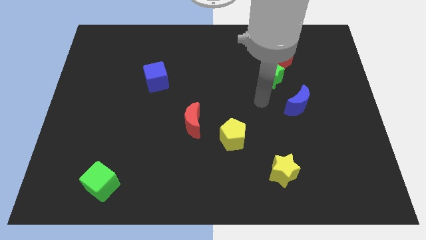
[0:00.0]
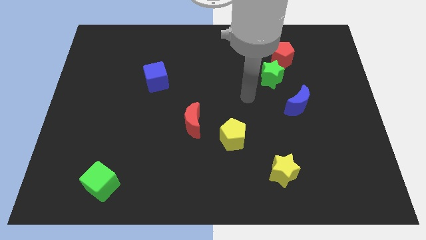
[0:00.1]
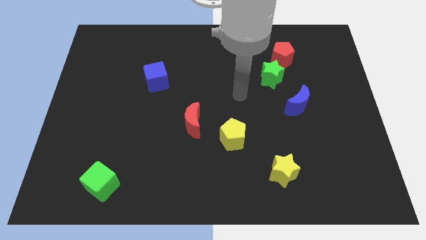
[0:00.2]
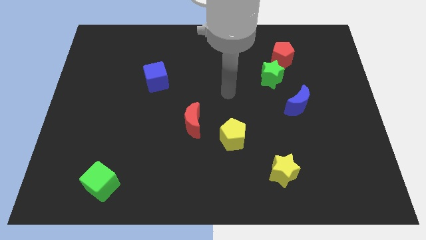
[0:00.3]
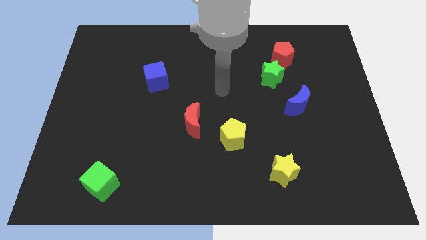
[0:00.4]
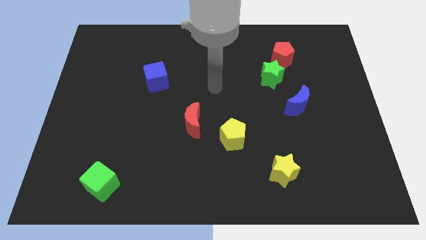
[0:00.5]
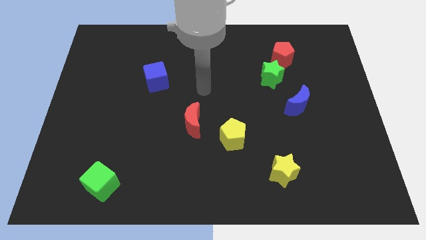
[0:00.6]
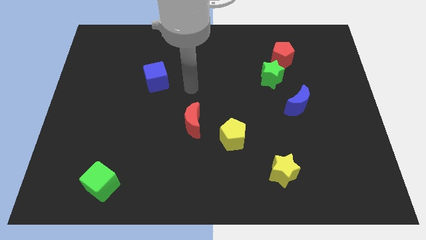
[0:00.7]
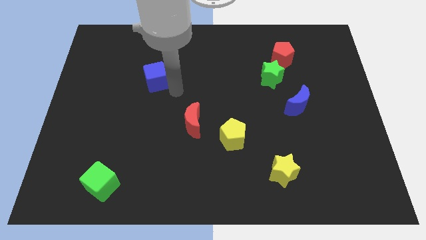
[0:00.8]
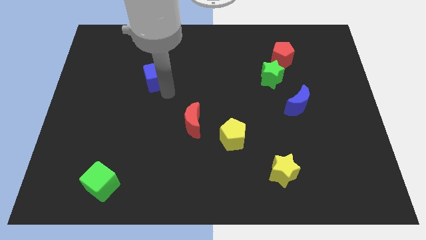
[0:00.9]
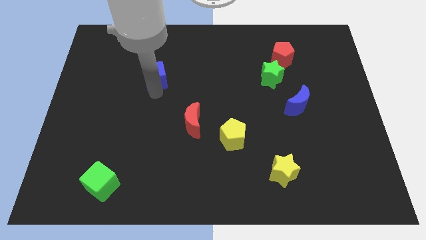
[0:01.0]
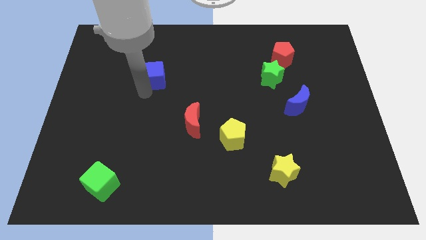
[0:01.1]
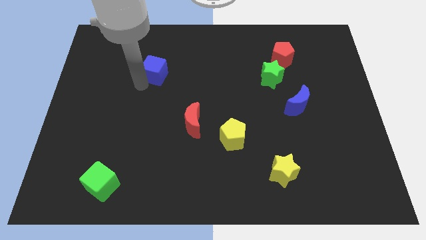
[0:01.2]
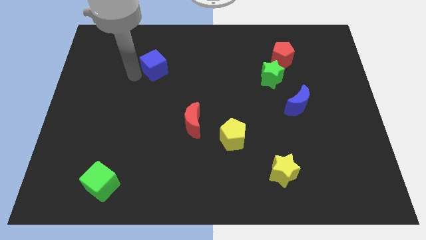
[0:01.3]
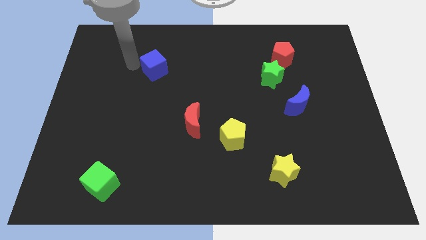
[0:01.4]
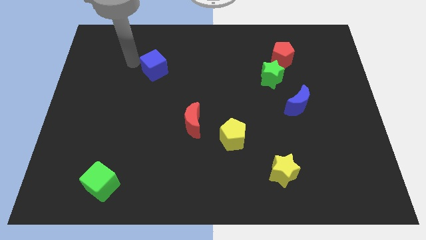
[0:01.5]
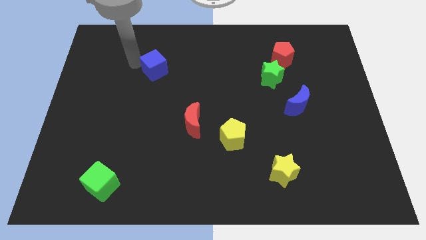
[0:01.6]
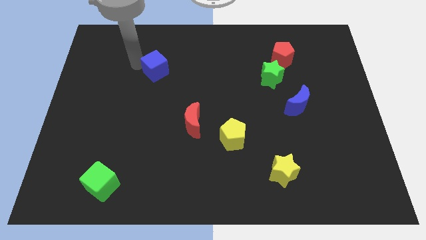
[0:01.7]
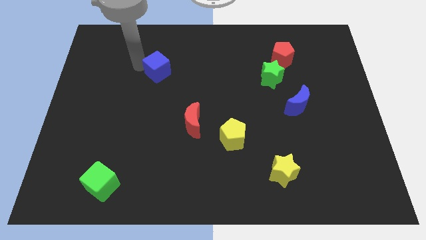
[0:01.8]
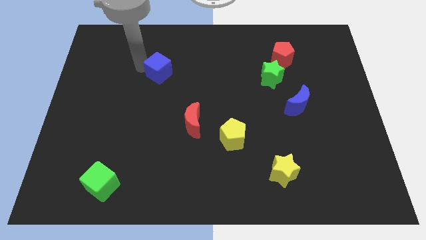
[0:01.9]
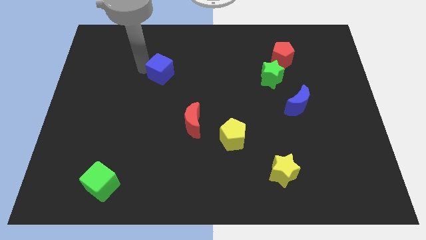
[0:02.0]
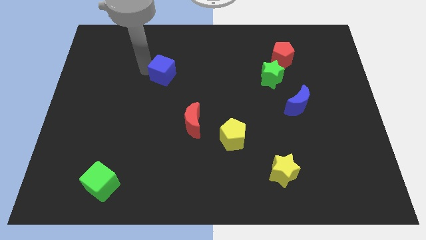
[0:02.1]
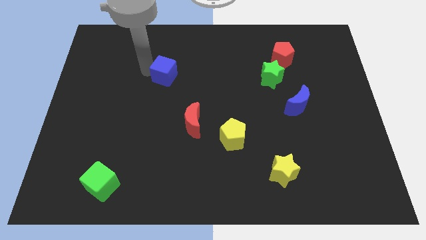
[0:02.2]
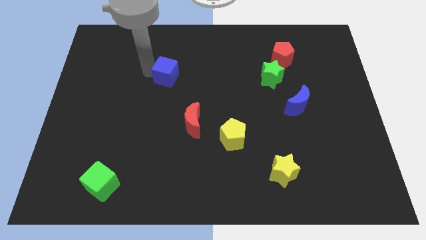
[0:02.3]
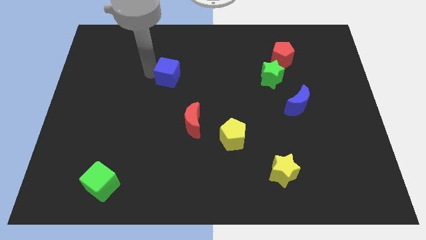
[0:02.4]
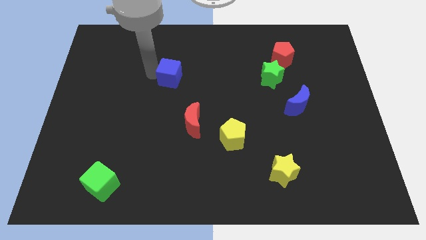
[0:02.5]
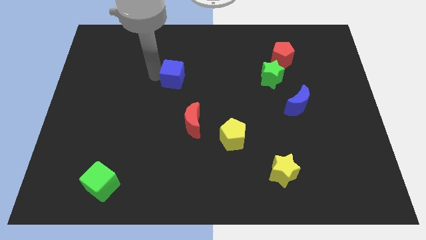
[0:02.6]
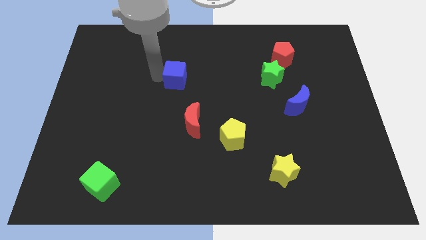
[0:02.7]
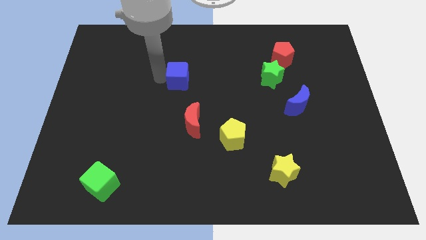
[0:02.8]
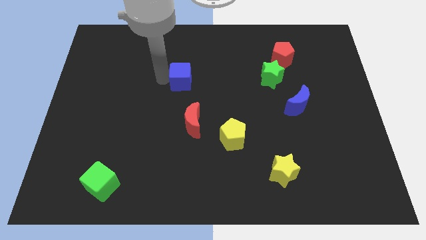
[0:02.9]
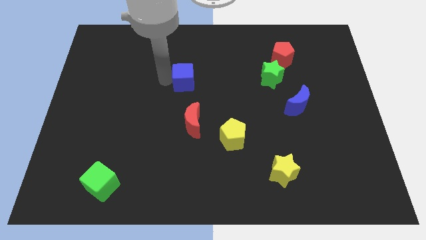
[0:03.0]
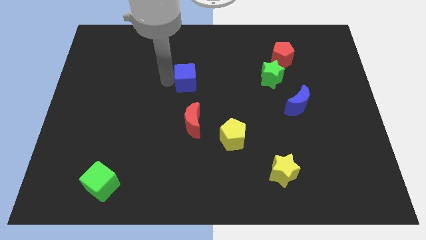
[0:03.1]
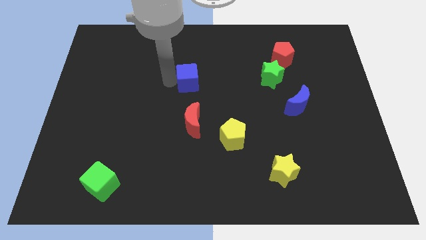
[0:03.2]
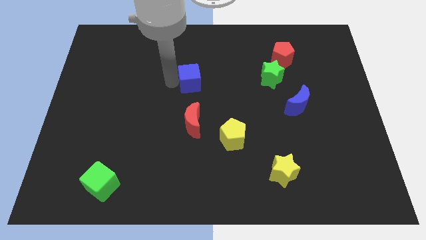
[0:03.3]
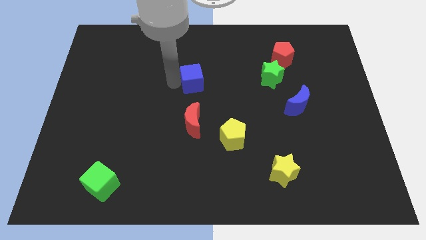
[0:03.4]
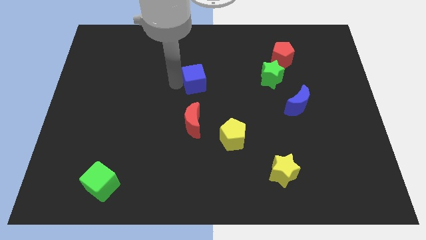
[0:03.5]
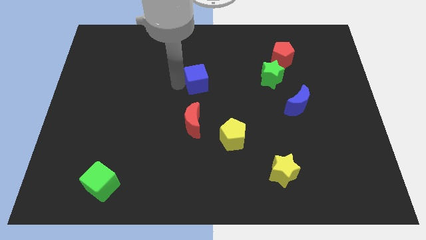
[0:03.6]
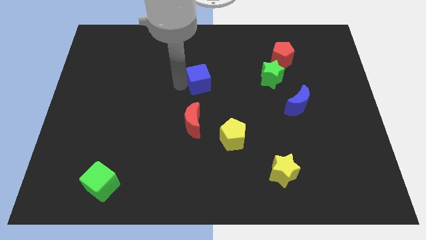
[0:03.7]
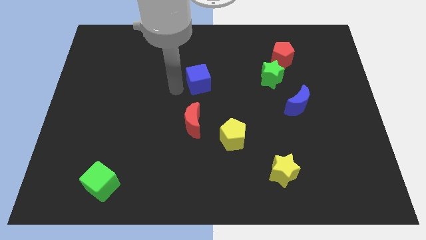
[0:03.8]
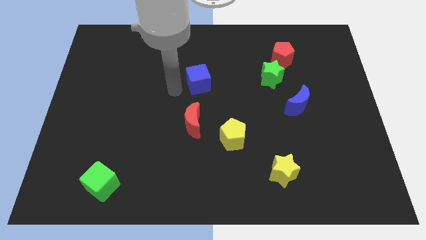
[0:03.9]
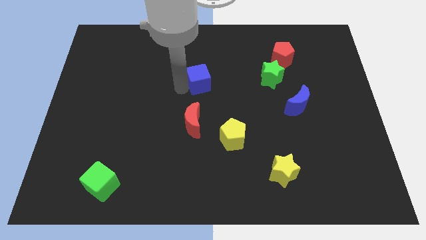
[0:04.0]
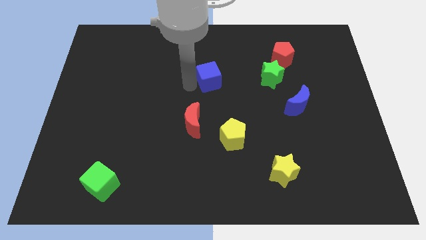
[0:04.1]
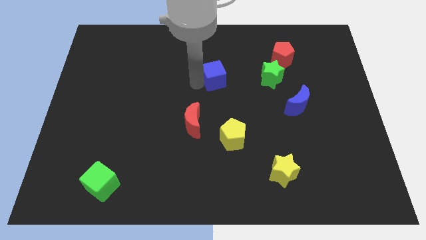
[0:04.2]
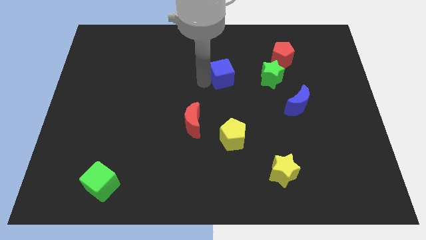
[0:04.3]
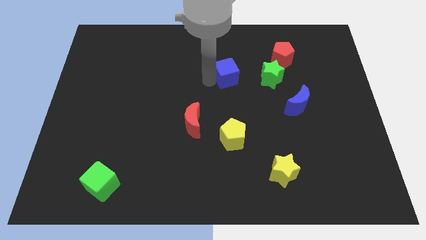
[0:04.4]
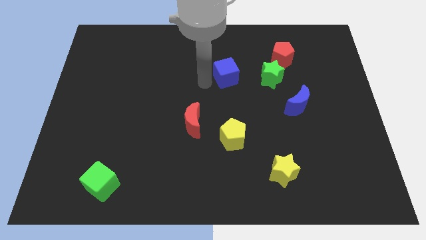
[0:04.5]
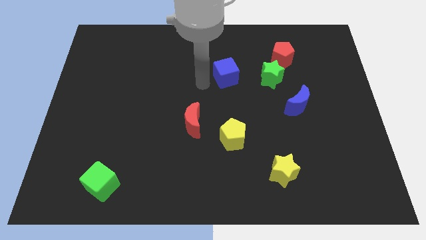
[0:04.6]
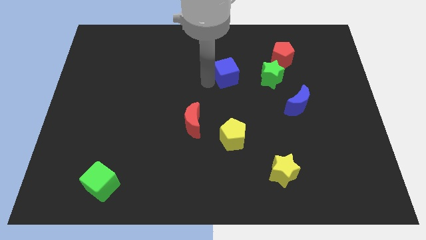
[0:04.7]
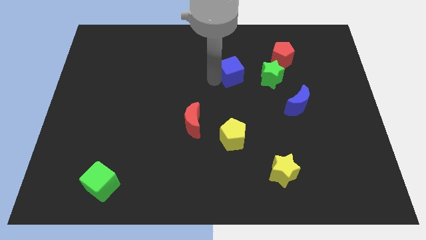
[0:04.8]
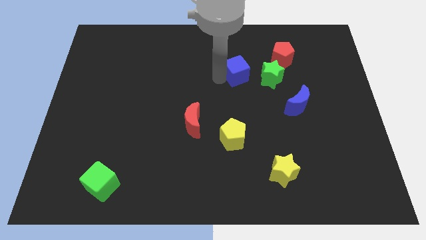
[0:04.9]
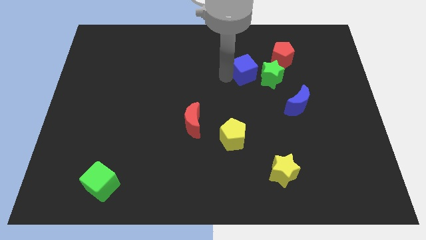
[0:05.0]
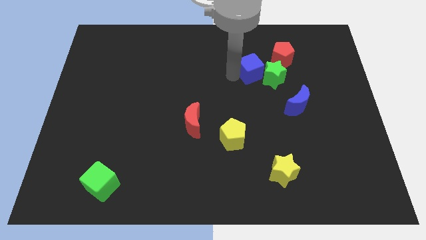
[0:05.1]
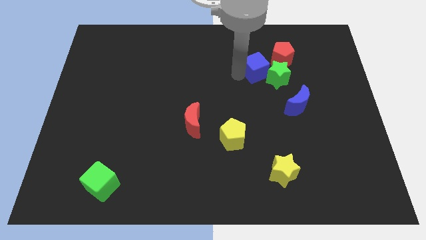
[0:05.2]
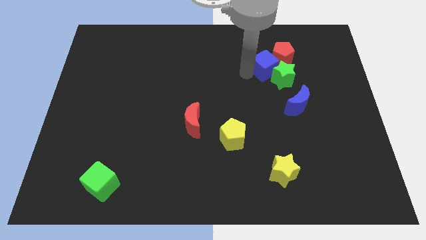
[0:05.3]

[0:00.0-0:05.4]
move the blue cube close to the red pentagon

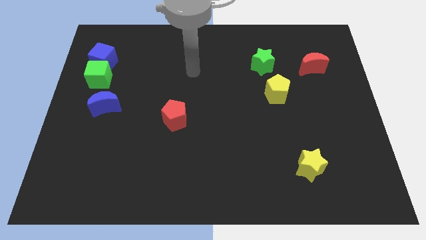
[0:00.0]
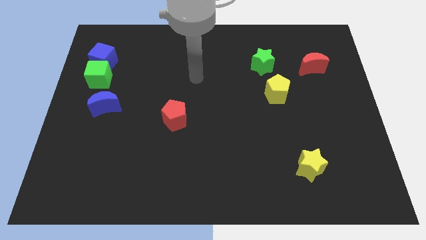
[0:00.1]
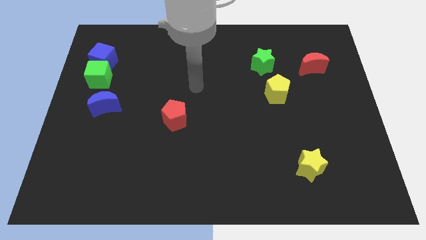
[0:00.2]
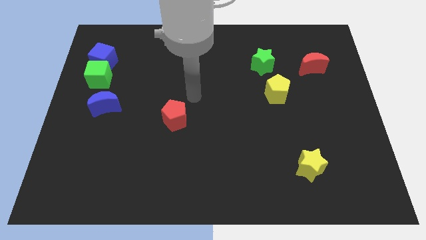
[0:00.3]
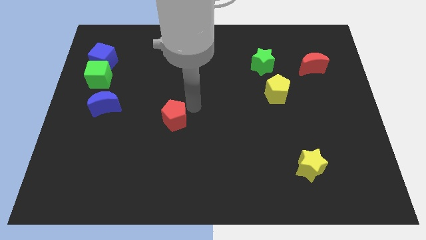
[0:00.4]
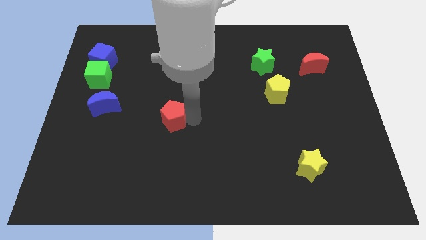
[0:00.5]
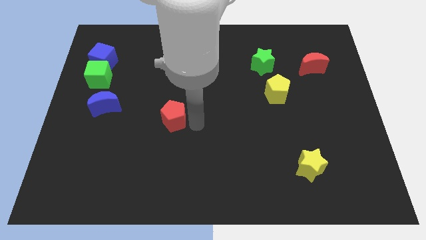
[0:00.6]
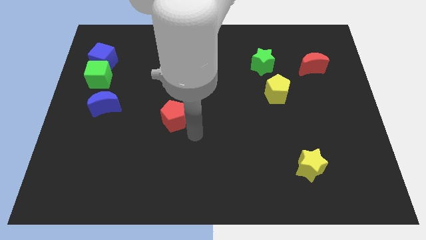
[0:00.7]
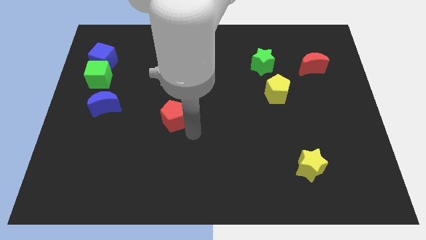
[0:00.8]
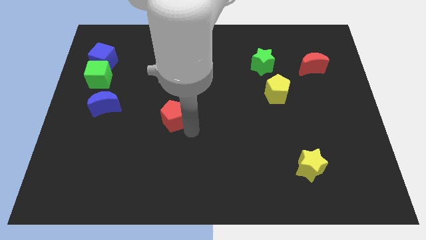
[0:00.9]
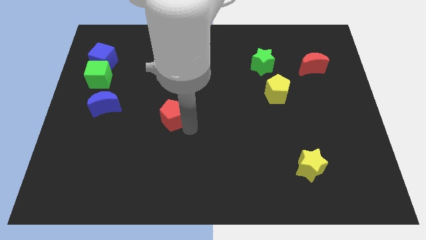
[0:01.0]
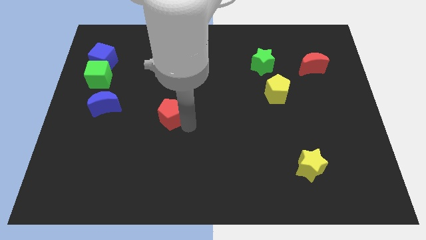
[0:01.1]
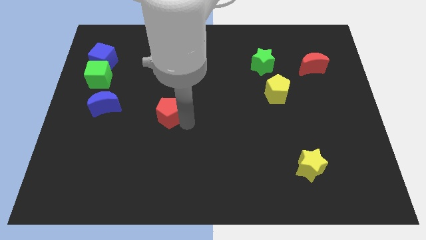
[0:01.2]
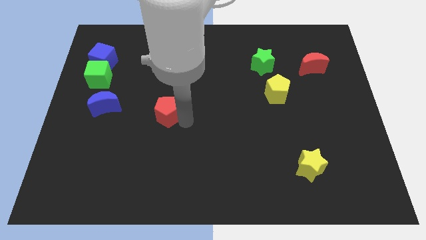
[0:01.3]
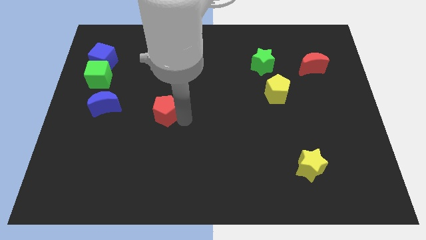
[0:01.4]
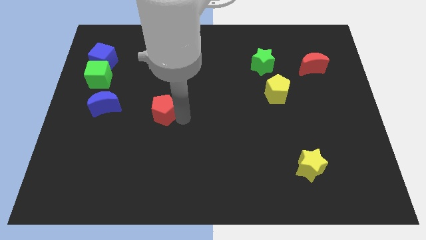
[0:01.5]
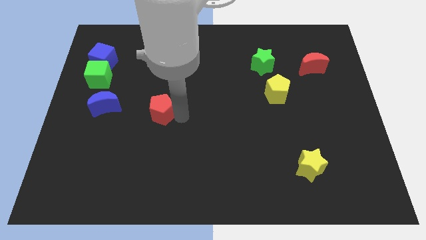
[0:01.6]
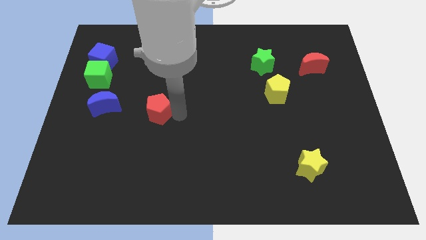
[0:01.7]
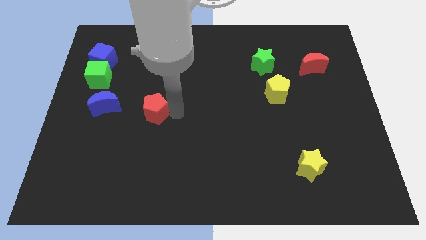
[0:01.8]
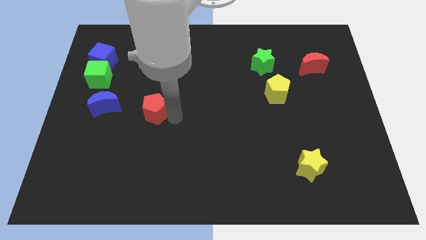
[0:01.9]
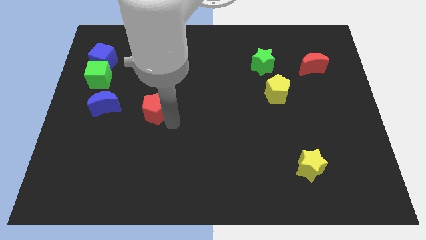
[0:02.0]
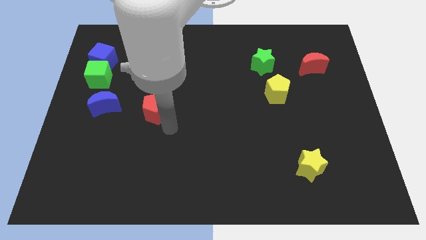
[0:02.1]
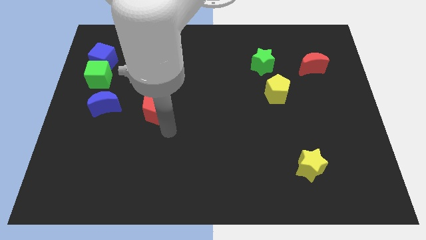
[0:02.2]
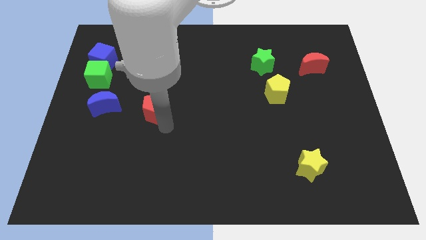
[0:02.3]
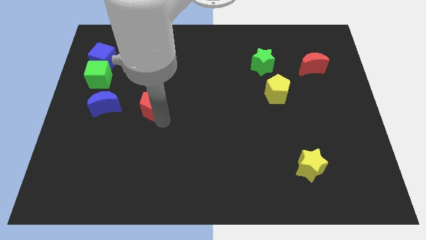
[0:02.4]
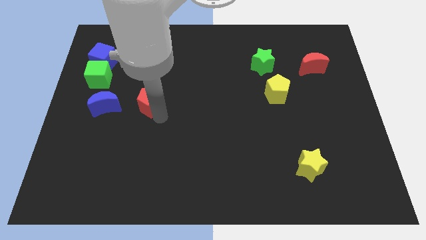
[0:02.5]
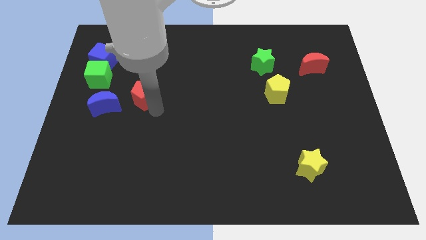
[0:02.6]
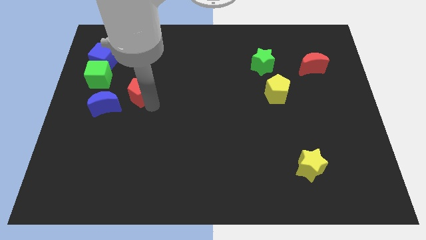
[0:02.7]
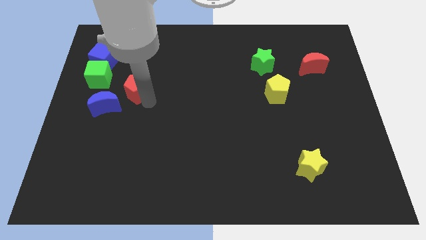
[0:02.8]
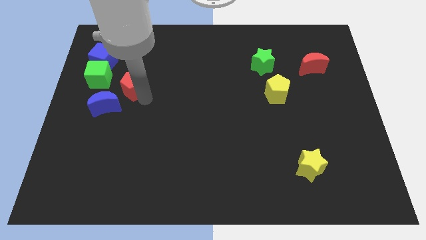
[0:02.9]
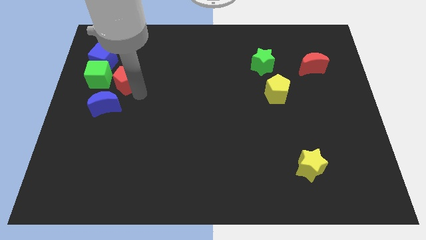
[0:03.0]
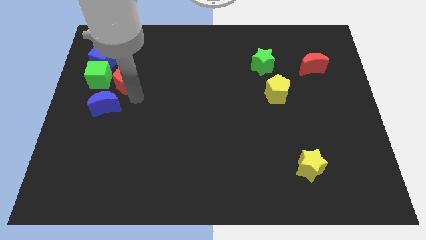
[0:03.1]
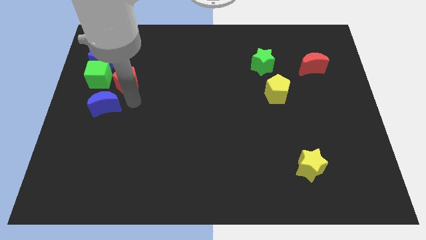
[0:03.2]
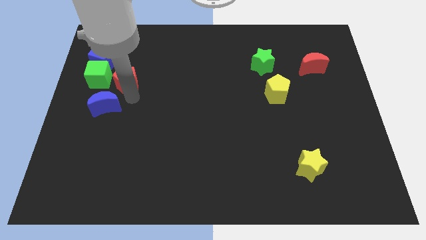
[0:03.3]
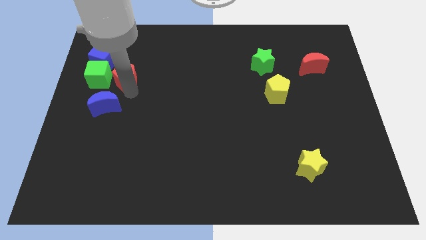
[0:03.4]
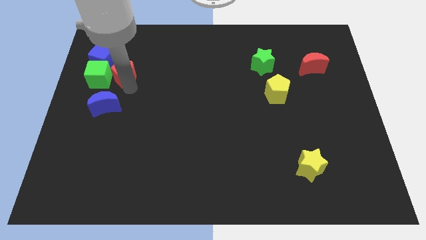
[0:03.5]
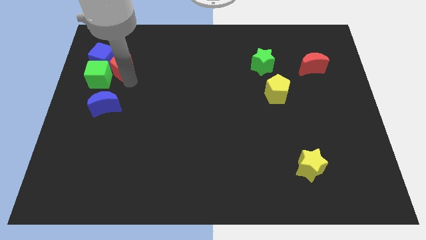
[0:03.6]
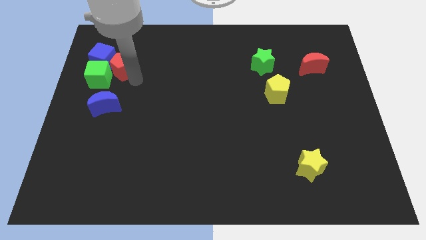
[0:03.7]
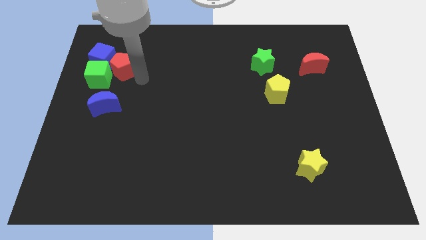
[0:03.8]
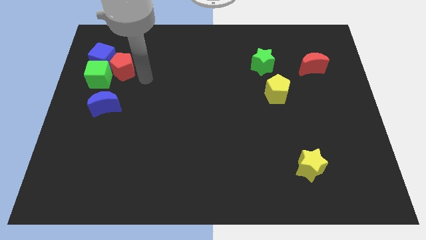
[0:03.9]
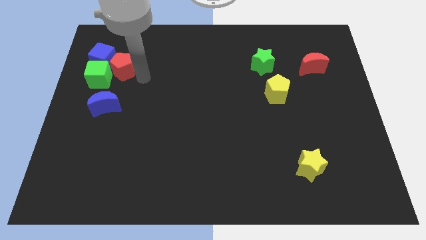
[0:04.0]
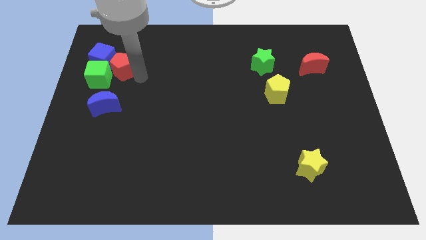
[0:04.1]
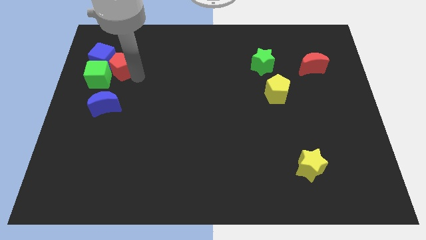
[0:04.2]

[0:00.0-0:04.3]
slide the red pentagon towards the blue cube
